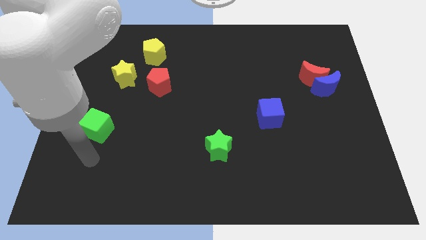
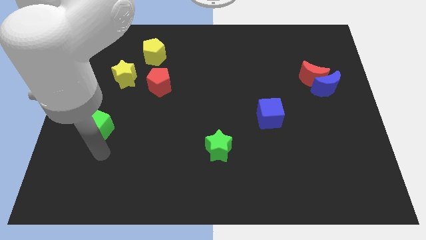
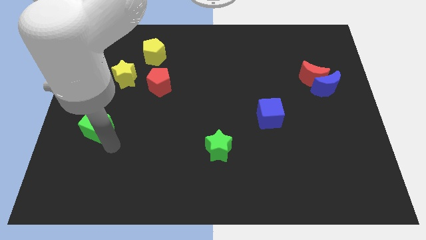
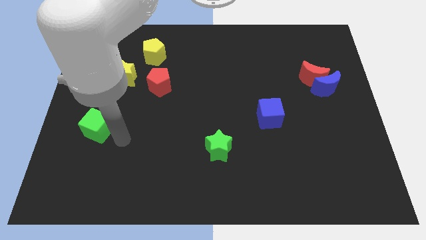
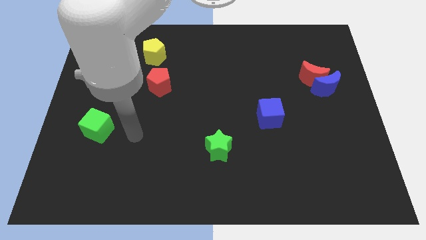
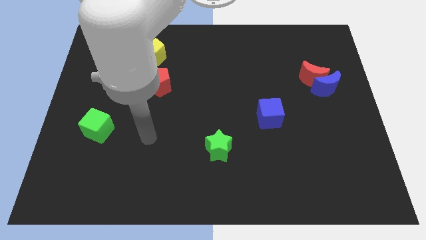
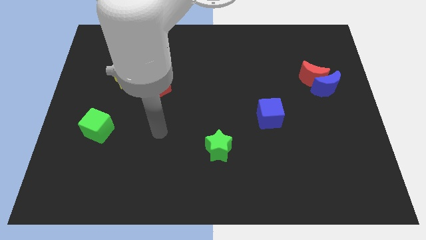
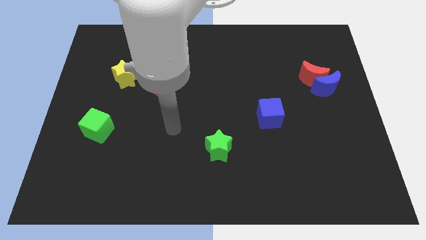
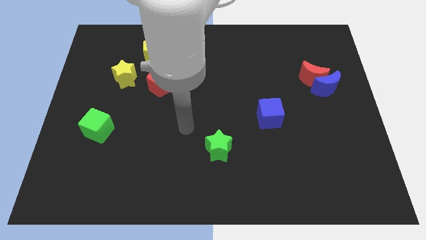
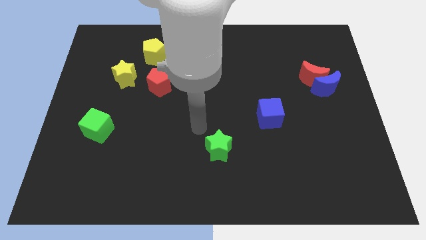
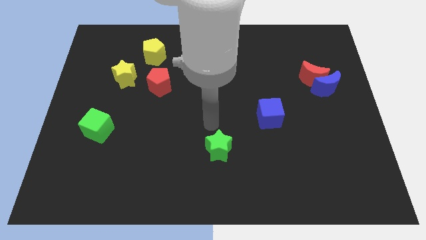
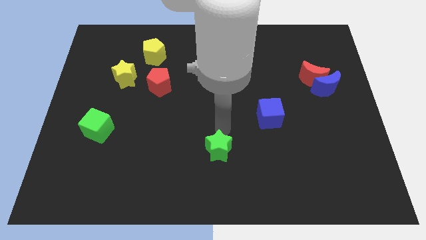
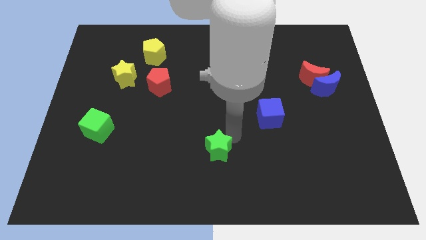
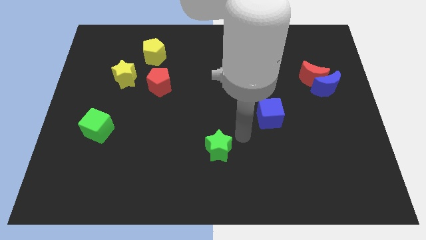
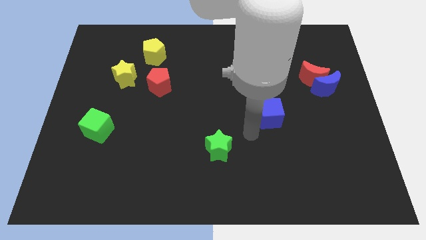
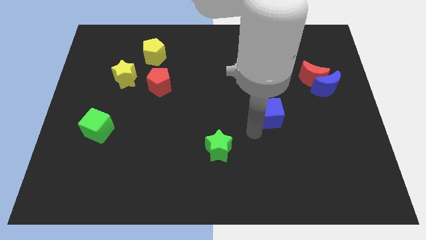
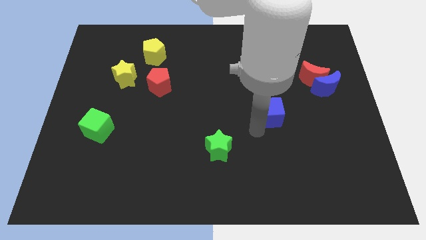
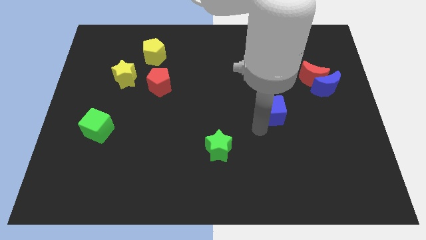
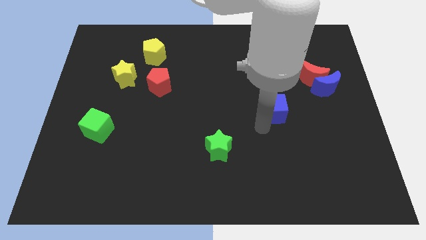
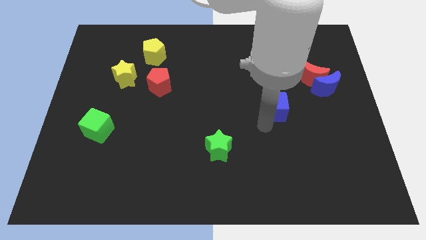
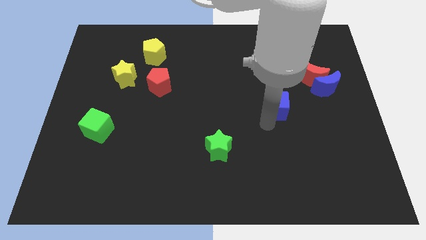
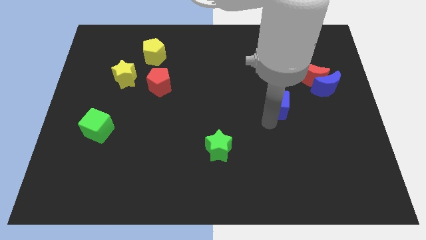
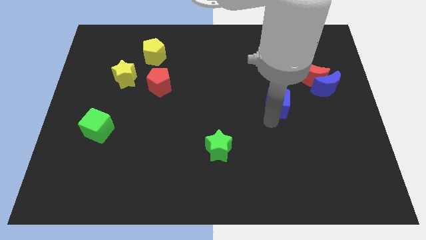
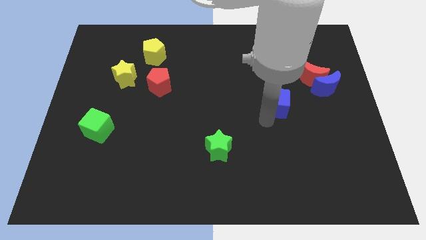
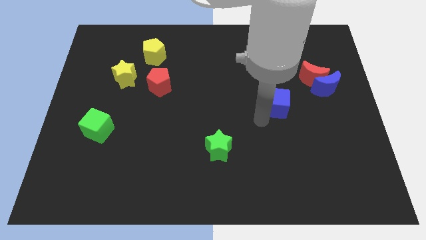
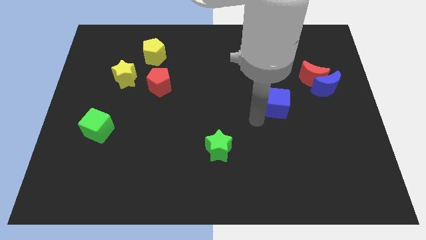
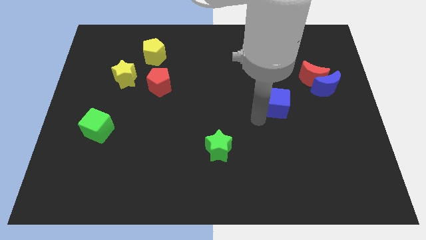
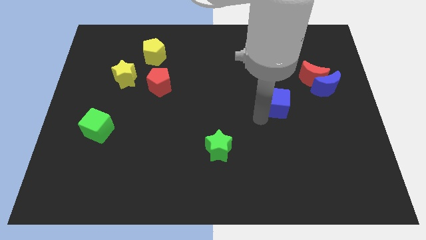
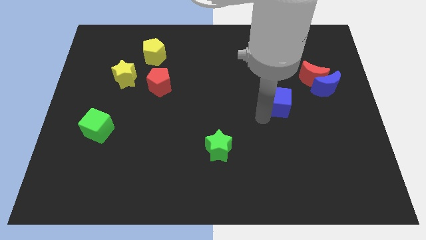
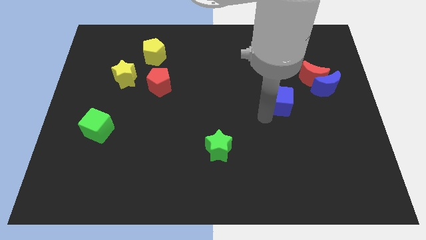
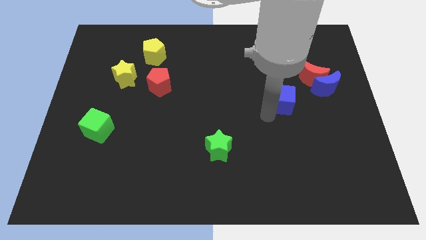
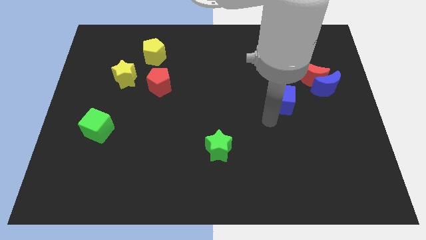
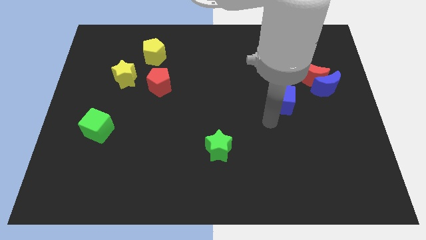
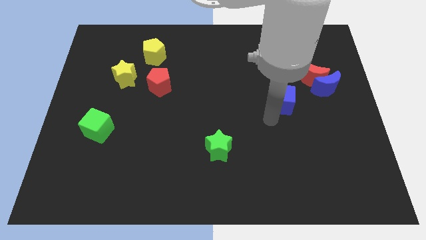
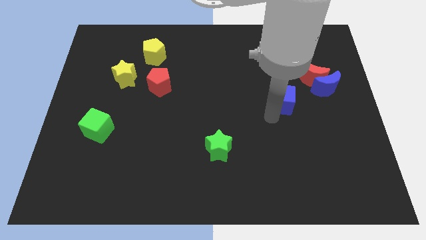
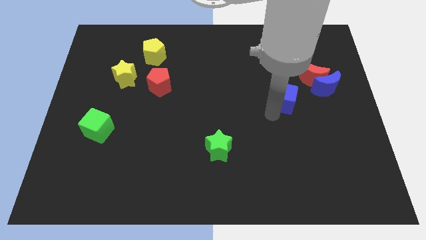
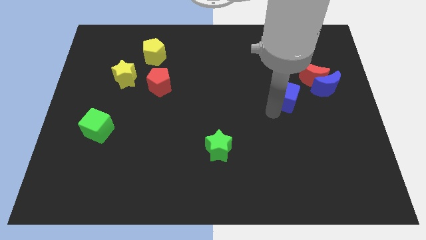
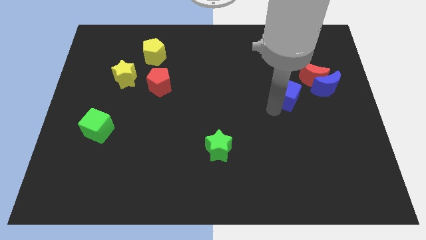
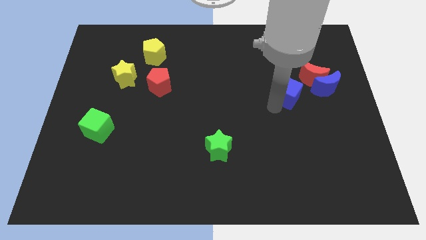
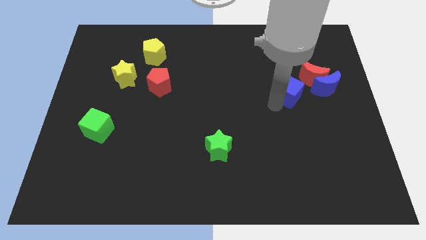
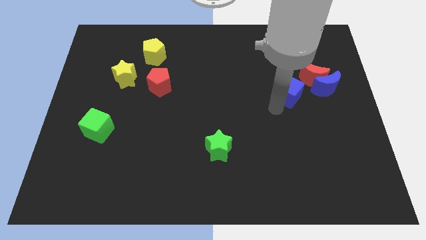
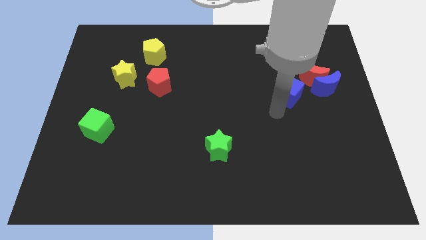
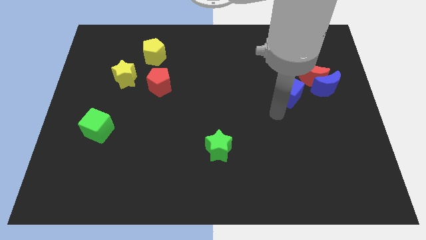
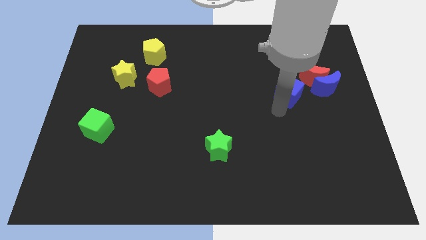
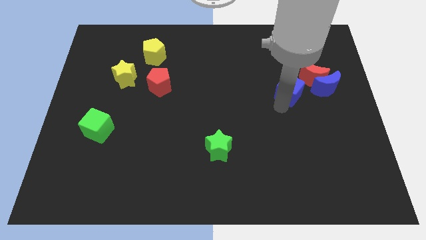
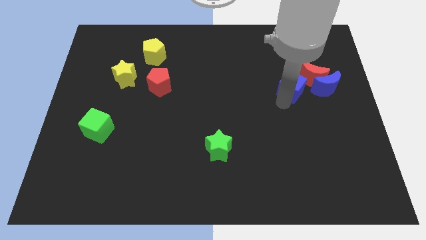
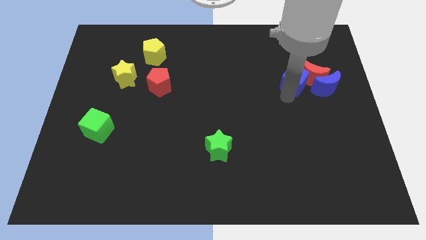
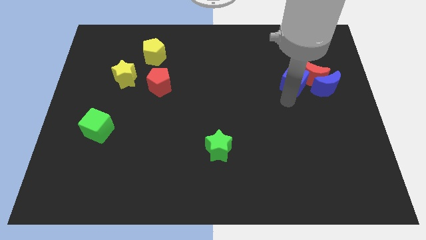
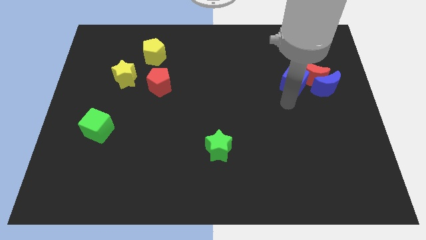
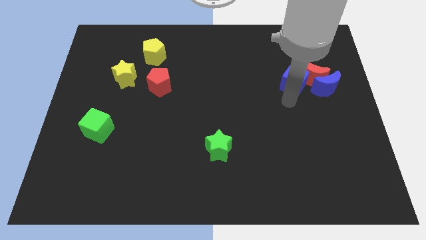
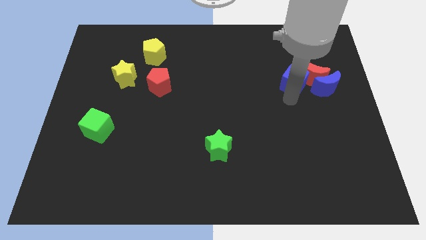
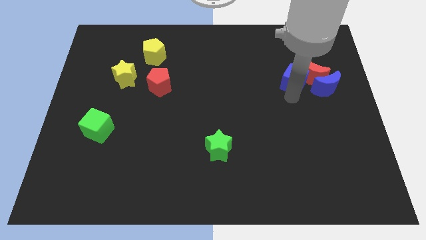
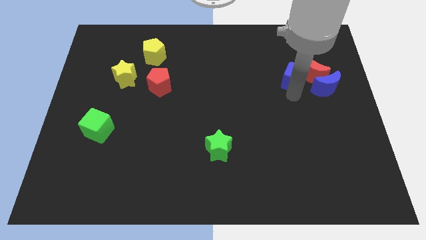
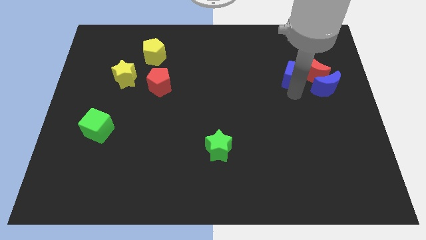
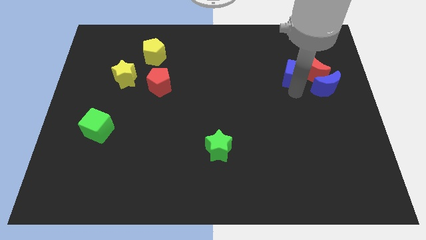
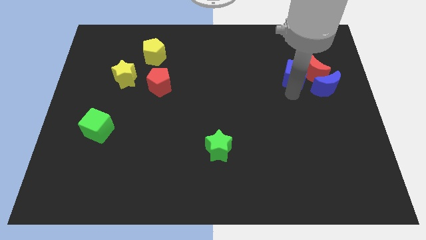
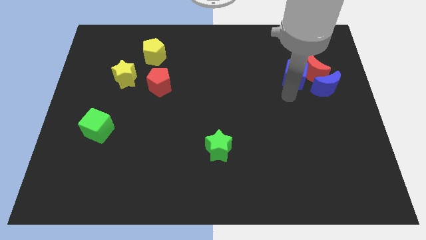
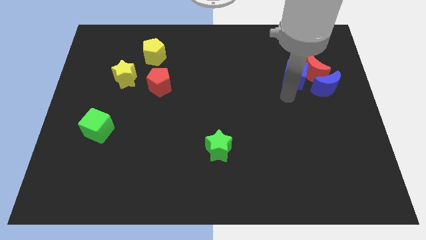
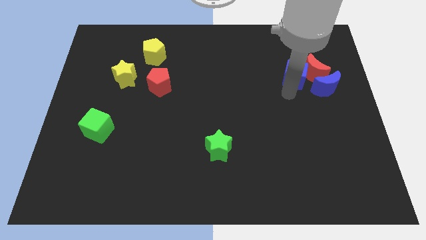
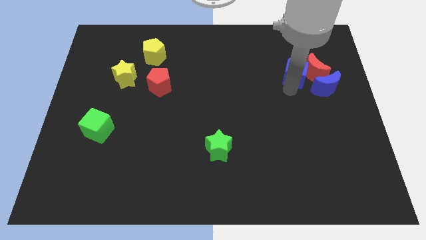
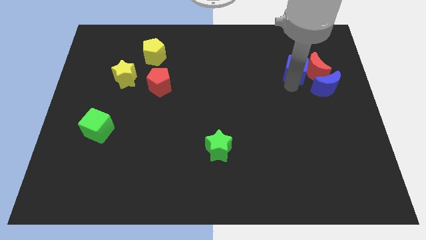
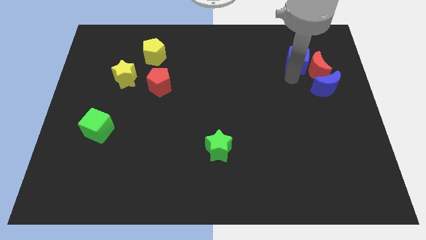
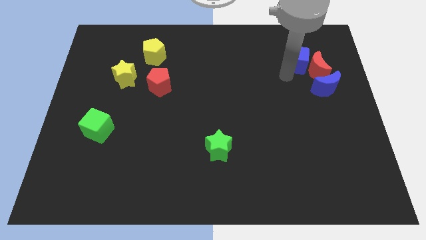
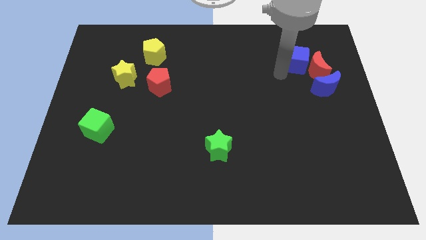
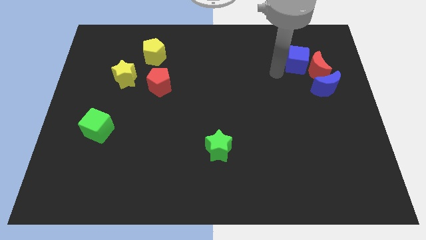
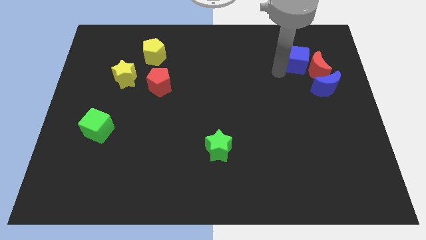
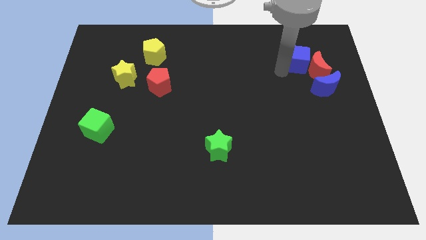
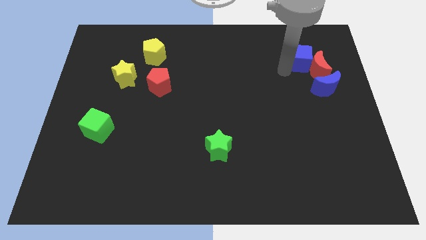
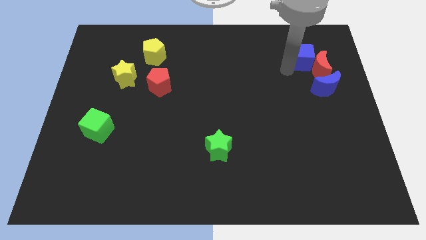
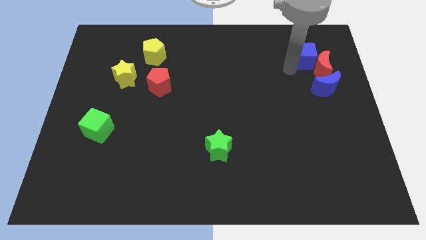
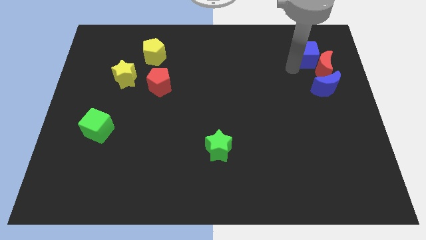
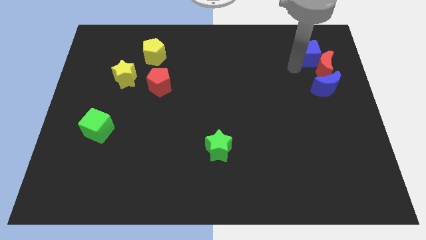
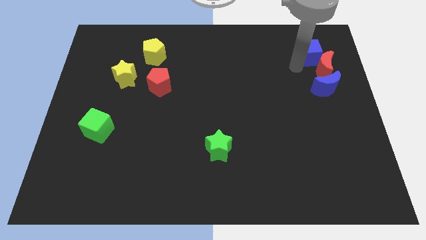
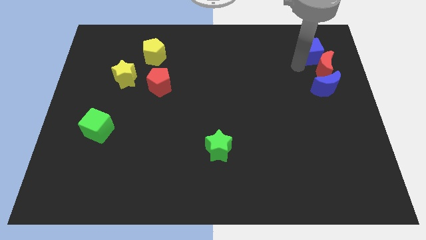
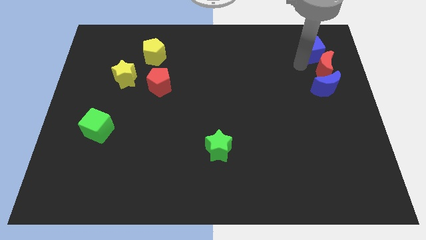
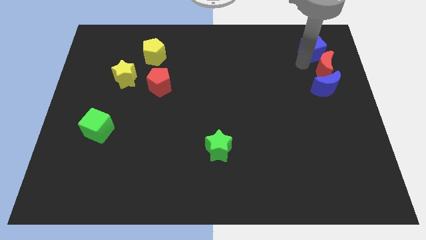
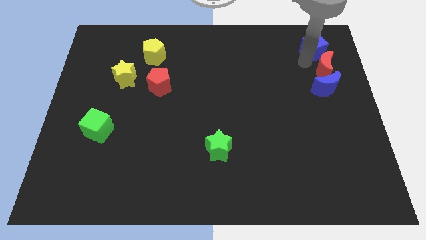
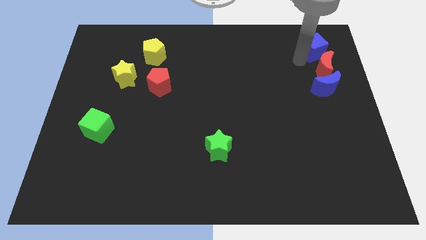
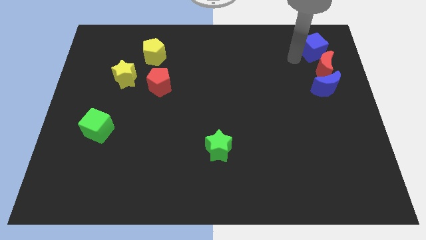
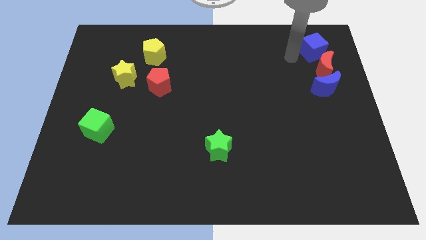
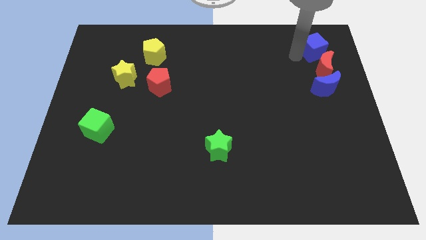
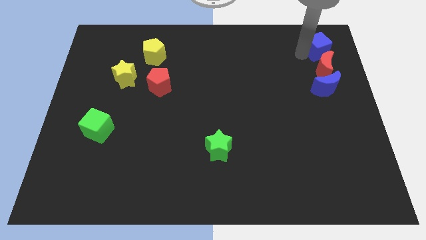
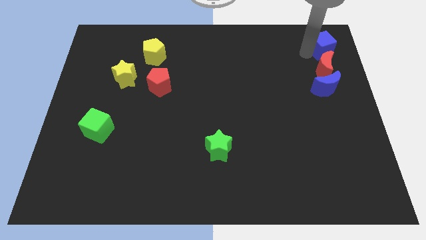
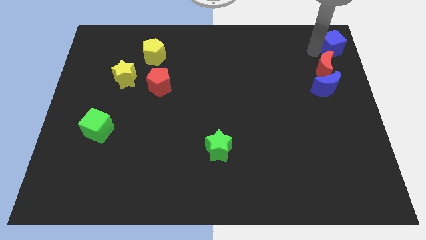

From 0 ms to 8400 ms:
put the blue cube to the top right of the board
